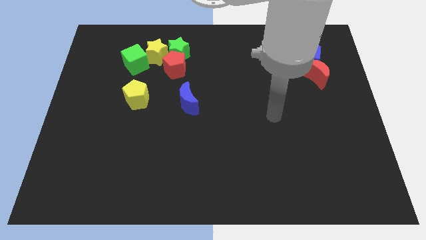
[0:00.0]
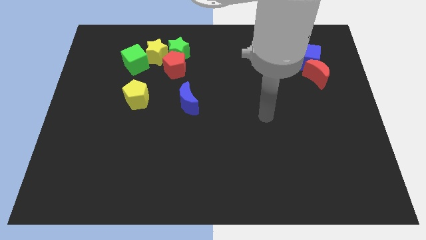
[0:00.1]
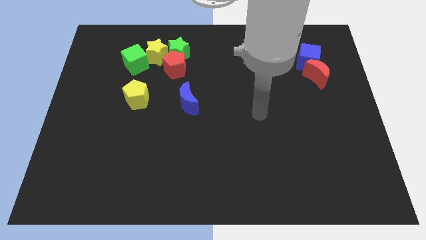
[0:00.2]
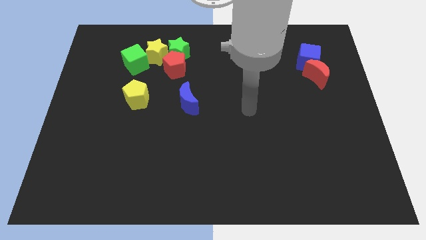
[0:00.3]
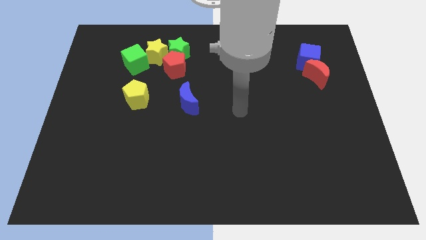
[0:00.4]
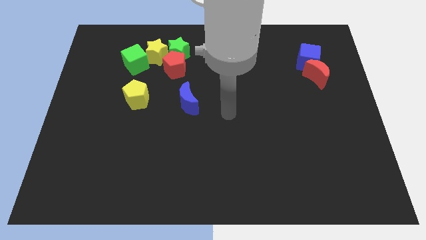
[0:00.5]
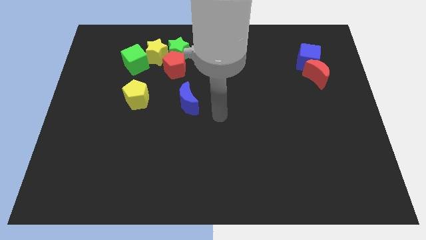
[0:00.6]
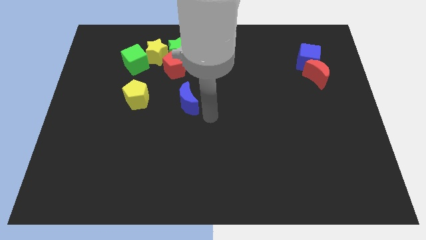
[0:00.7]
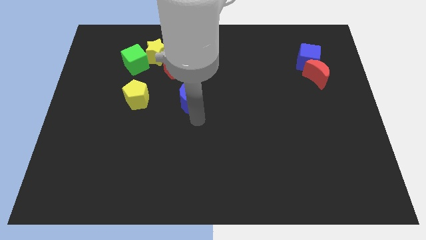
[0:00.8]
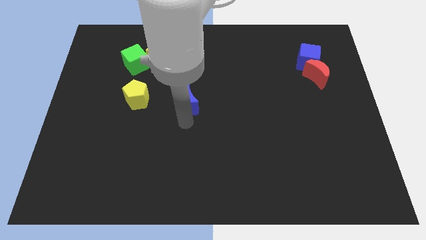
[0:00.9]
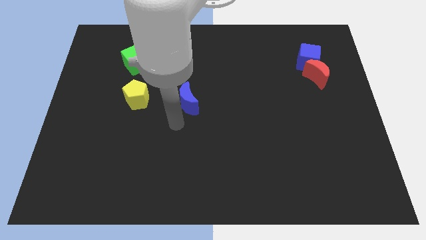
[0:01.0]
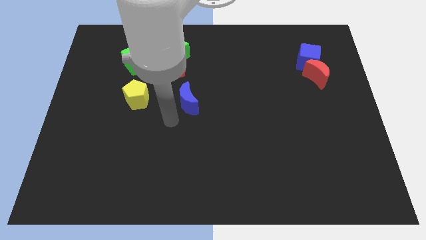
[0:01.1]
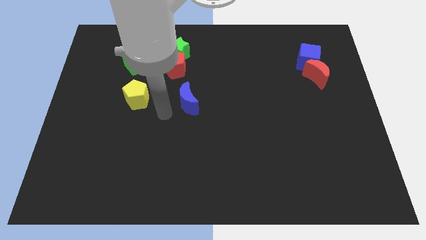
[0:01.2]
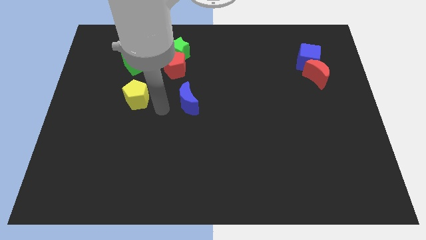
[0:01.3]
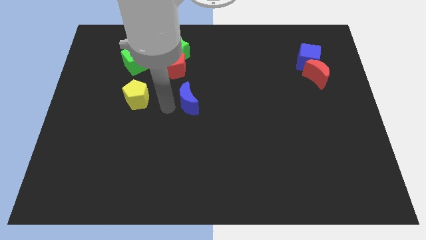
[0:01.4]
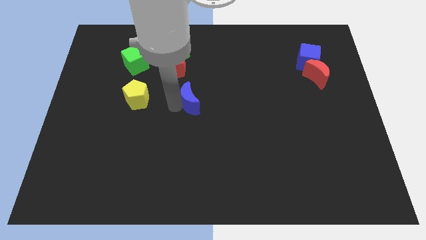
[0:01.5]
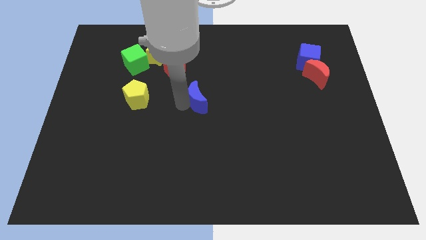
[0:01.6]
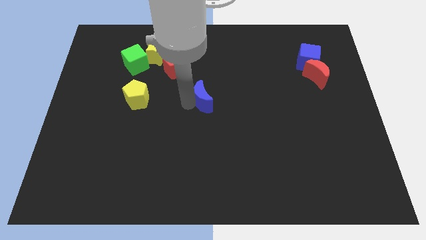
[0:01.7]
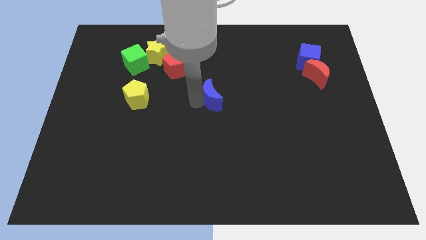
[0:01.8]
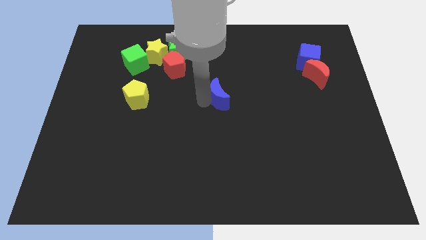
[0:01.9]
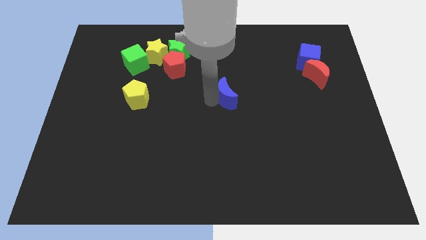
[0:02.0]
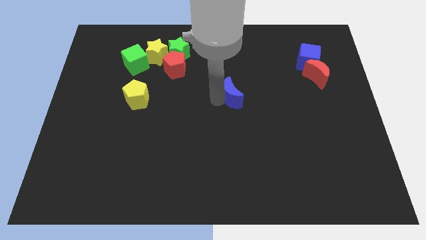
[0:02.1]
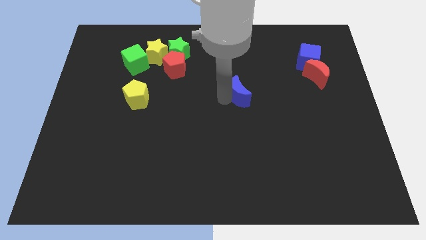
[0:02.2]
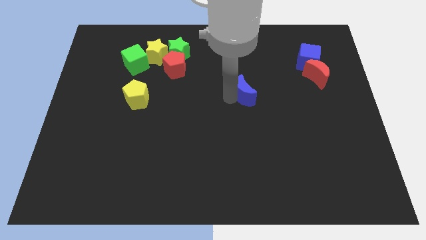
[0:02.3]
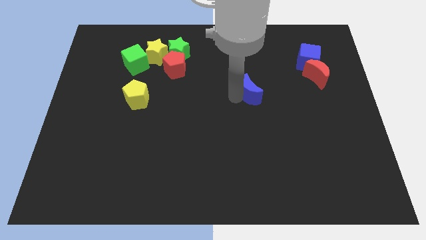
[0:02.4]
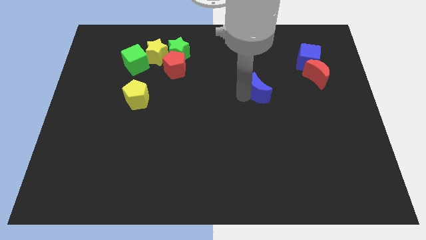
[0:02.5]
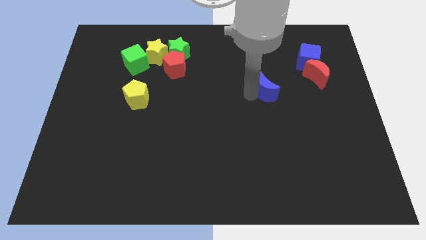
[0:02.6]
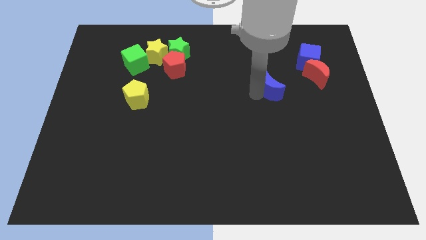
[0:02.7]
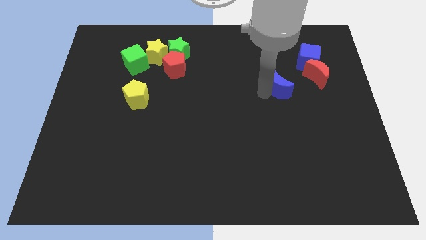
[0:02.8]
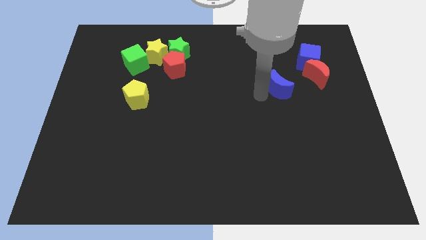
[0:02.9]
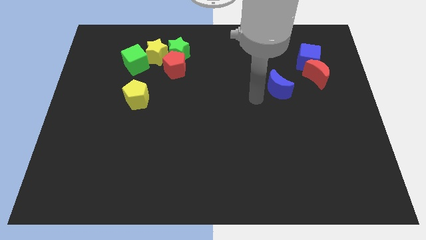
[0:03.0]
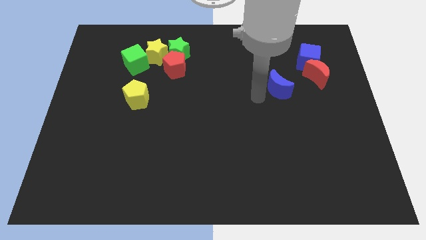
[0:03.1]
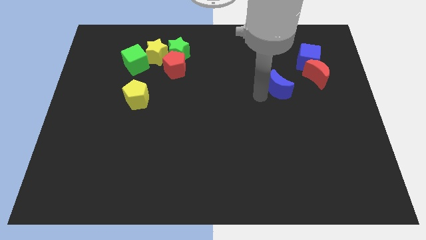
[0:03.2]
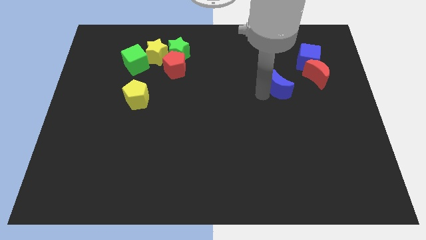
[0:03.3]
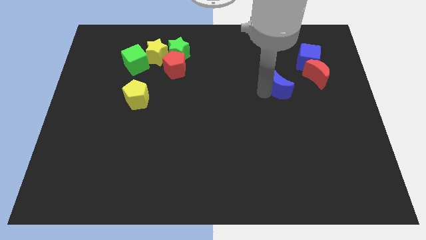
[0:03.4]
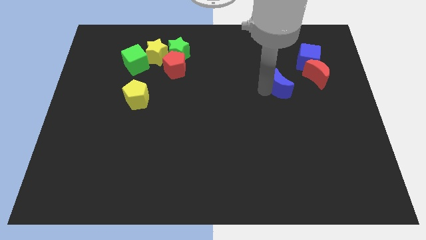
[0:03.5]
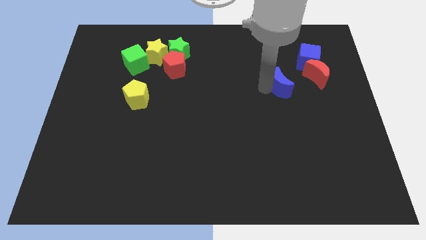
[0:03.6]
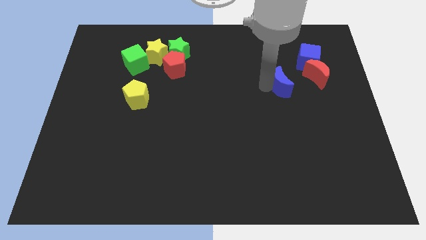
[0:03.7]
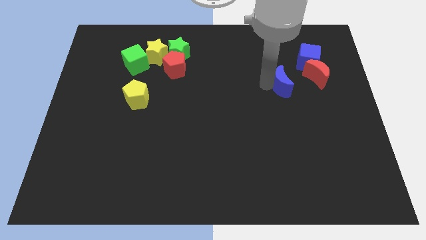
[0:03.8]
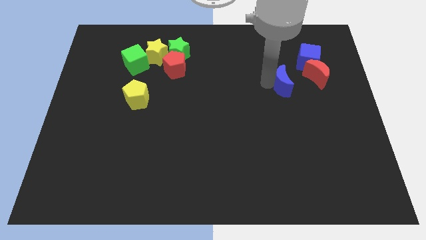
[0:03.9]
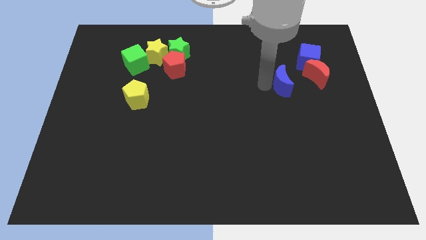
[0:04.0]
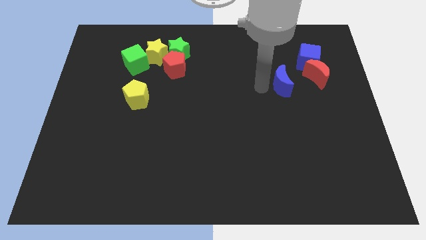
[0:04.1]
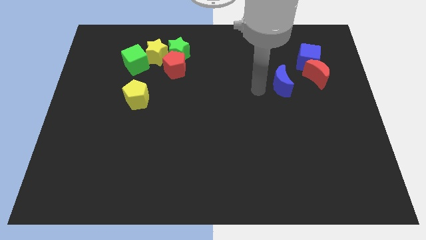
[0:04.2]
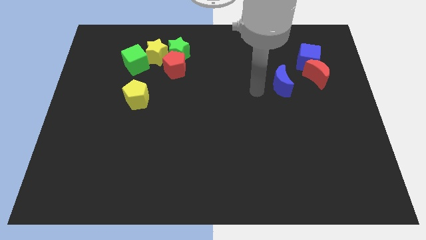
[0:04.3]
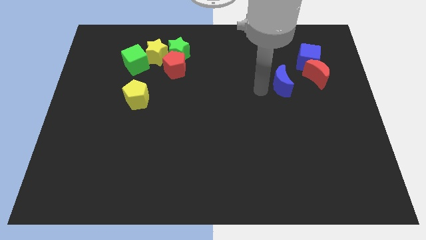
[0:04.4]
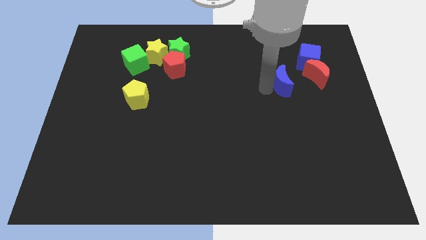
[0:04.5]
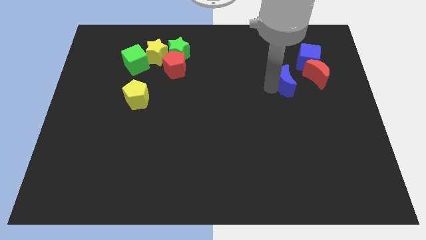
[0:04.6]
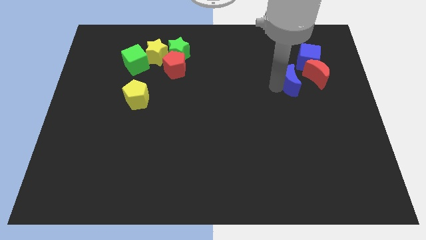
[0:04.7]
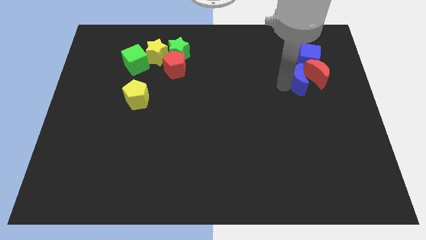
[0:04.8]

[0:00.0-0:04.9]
put the blue moon next to the red moon

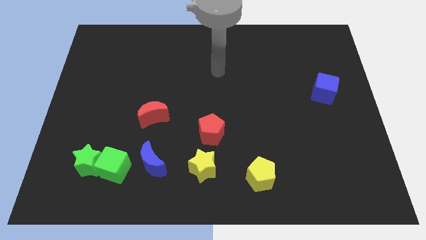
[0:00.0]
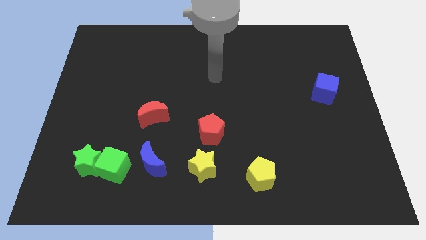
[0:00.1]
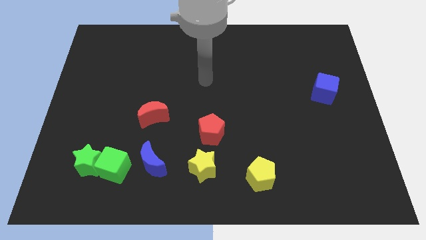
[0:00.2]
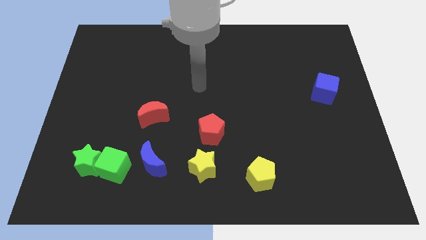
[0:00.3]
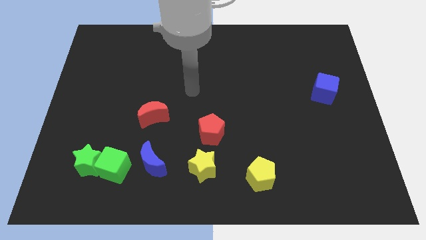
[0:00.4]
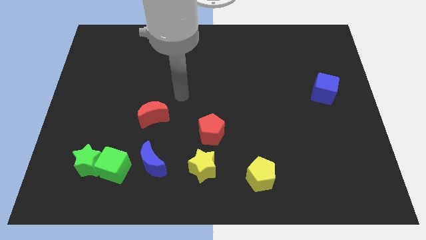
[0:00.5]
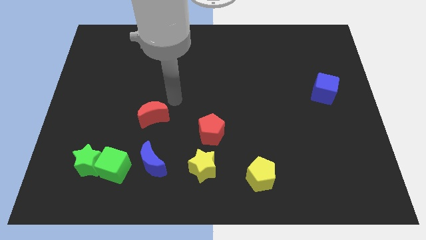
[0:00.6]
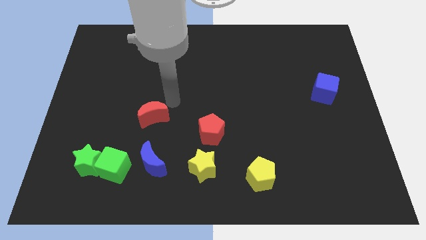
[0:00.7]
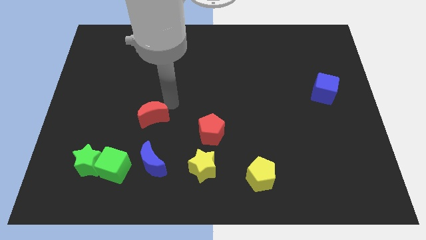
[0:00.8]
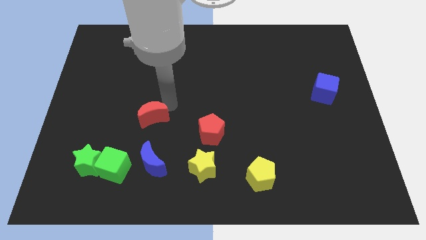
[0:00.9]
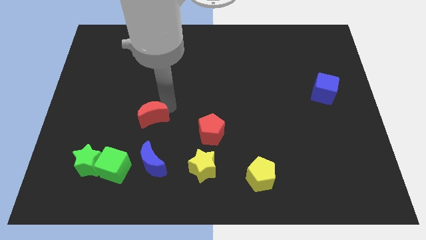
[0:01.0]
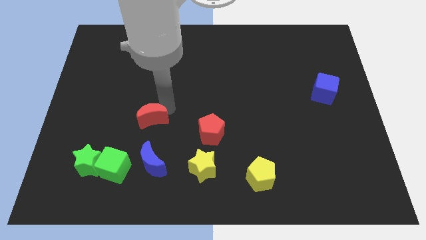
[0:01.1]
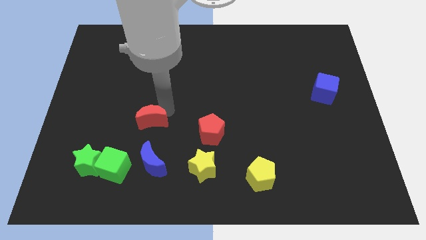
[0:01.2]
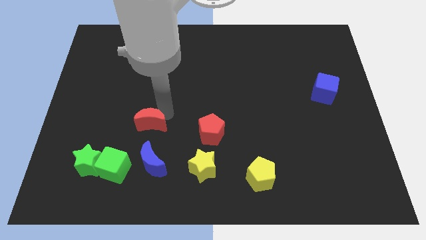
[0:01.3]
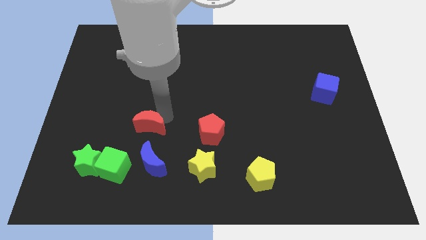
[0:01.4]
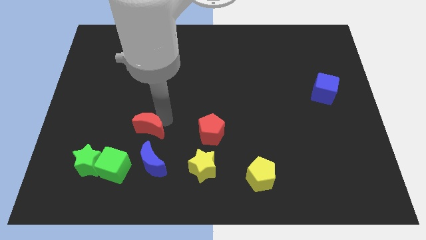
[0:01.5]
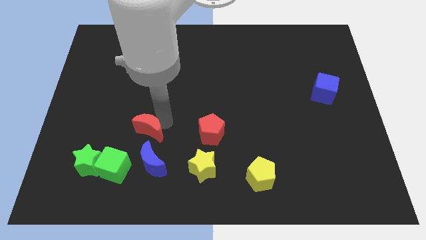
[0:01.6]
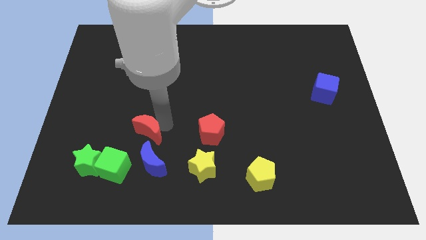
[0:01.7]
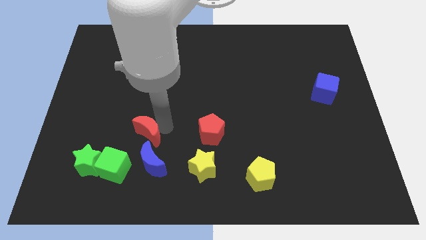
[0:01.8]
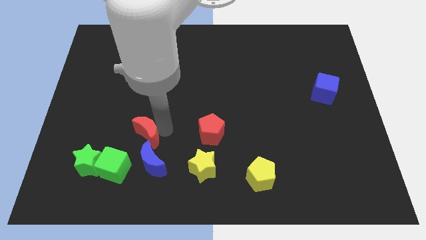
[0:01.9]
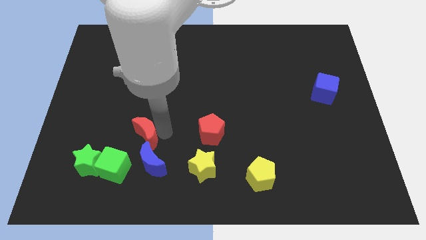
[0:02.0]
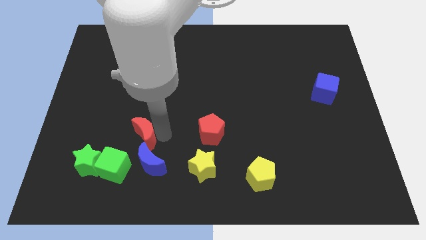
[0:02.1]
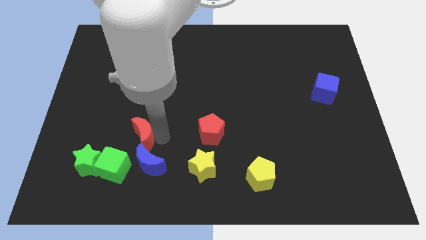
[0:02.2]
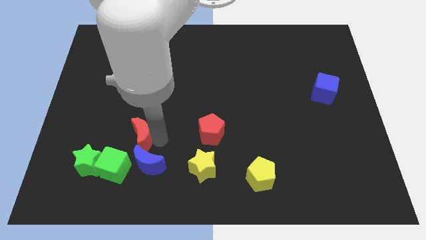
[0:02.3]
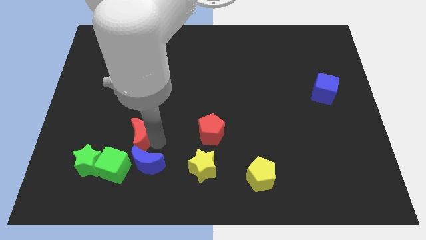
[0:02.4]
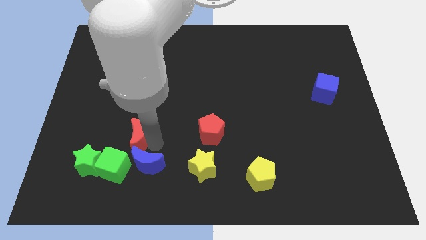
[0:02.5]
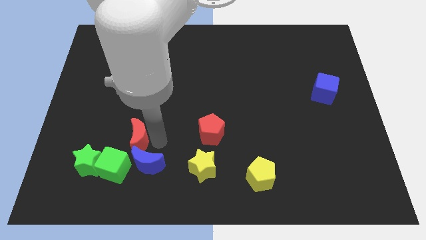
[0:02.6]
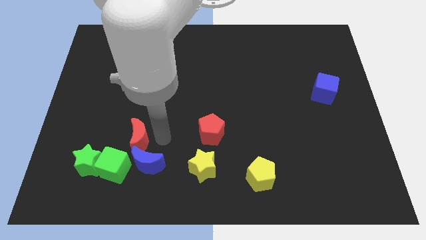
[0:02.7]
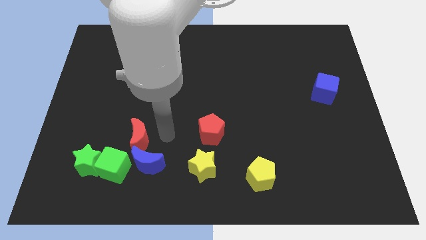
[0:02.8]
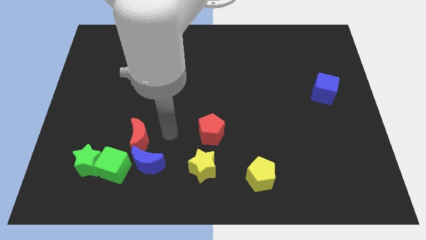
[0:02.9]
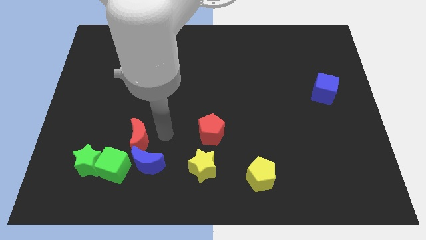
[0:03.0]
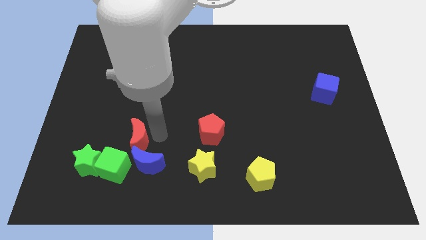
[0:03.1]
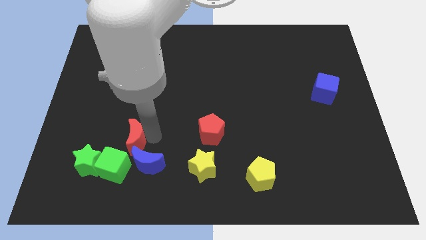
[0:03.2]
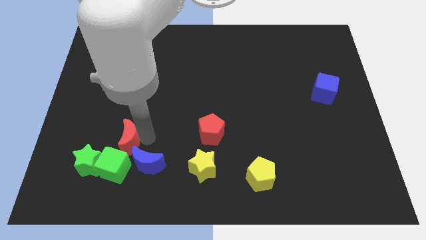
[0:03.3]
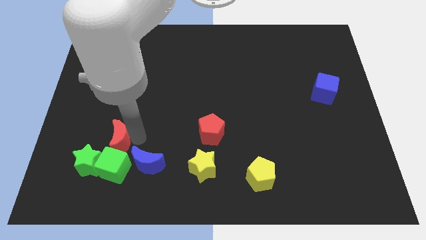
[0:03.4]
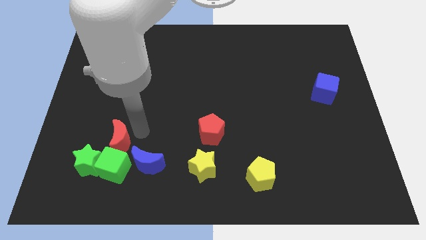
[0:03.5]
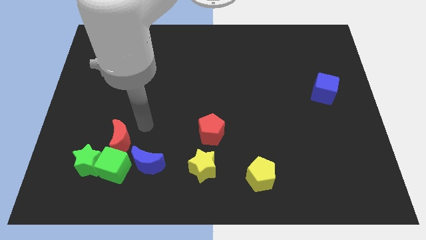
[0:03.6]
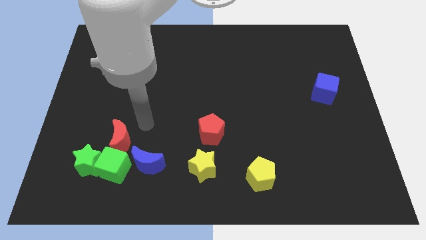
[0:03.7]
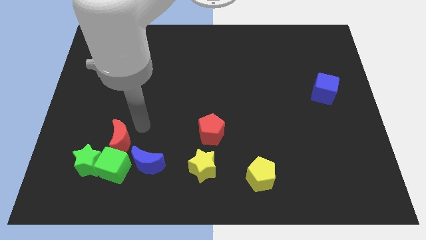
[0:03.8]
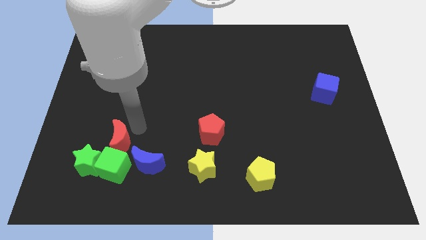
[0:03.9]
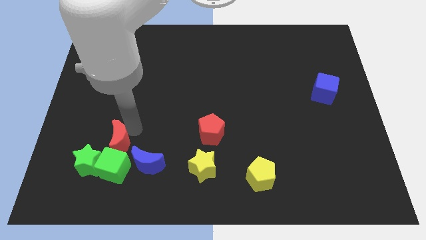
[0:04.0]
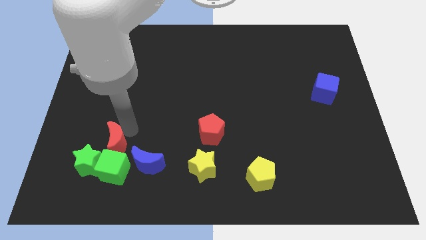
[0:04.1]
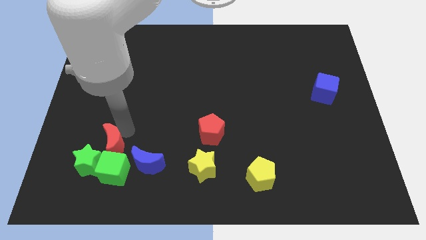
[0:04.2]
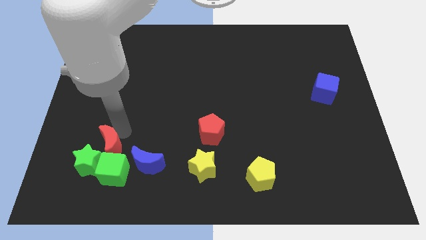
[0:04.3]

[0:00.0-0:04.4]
move the red moon next to the green star
